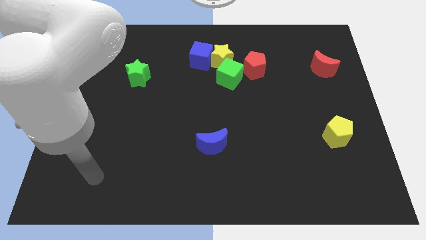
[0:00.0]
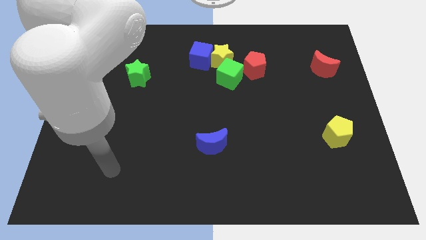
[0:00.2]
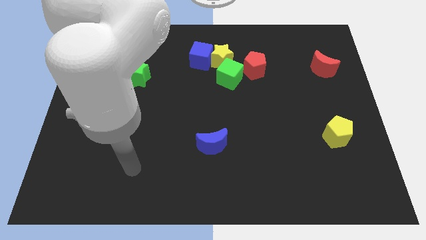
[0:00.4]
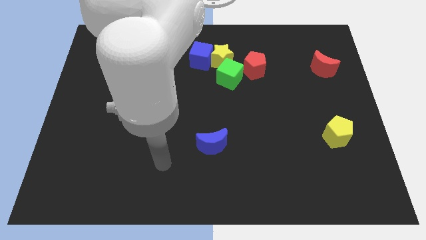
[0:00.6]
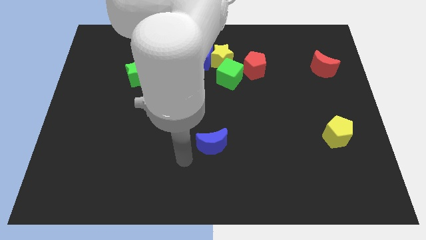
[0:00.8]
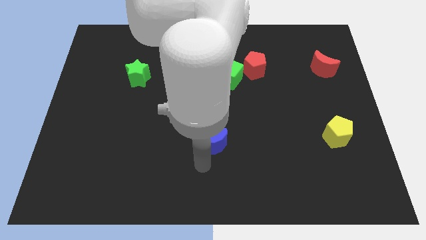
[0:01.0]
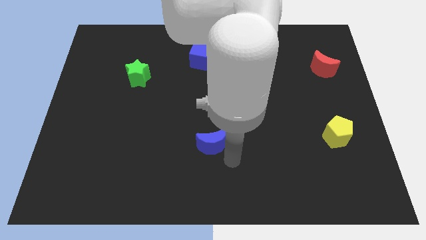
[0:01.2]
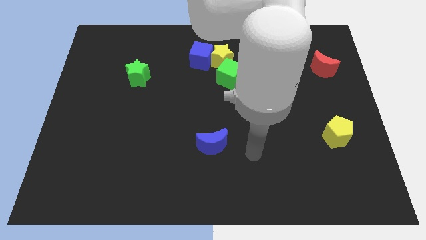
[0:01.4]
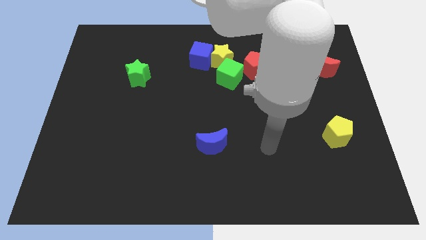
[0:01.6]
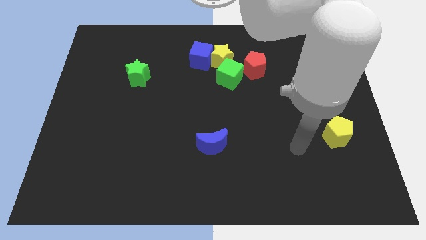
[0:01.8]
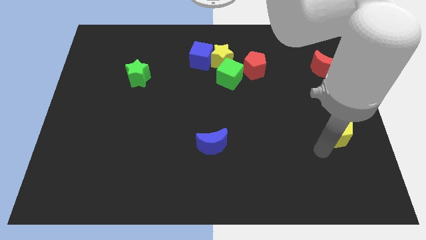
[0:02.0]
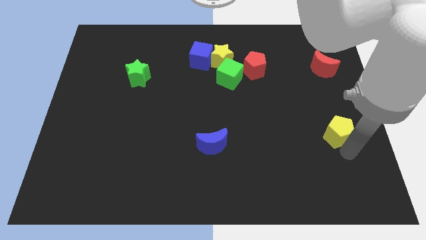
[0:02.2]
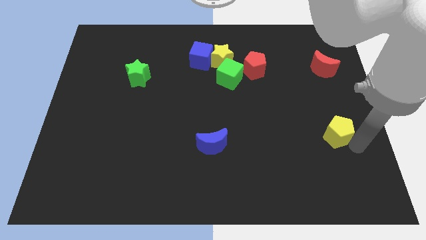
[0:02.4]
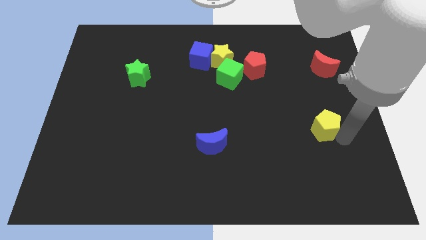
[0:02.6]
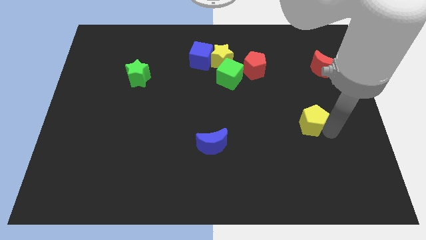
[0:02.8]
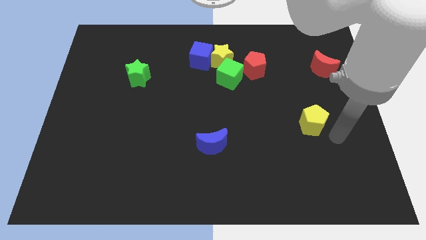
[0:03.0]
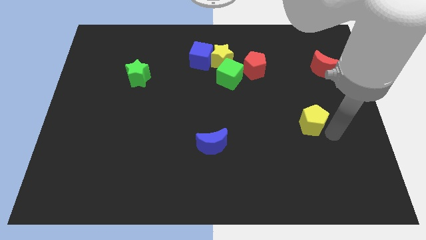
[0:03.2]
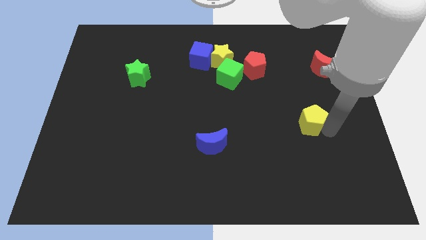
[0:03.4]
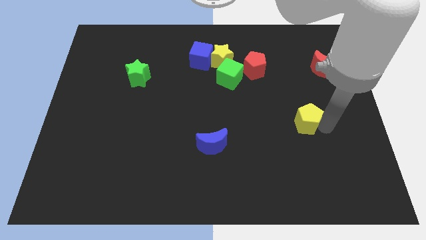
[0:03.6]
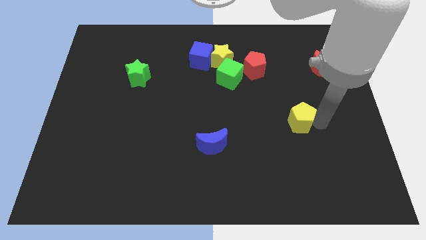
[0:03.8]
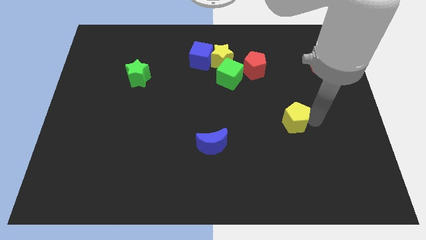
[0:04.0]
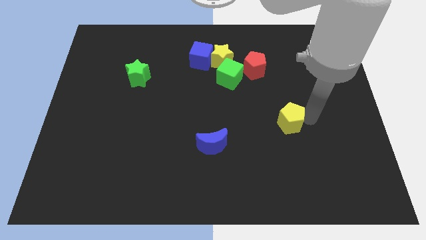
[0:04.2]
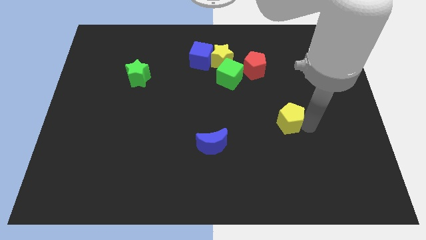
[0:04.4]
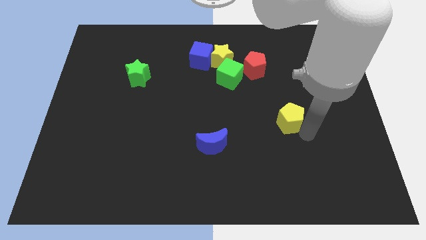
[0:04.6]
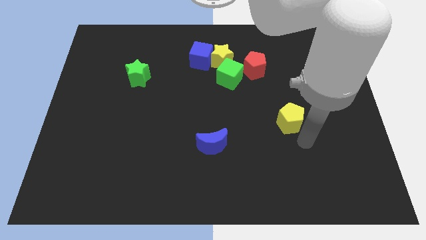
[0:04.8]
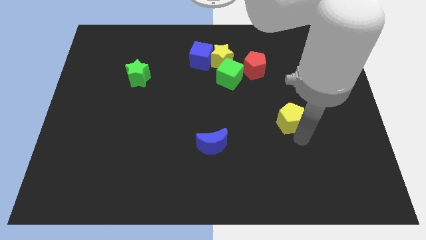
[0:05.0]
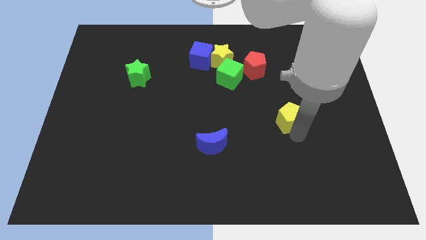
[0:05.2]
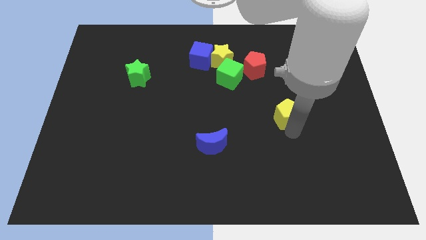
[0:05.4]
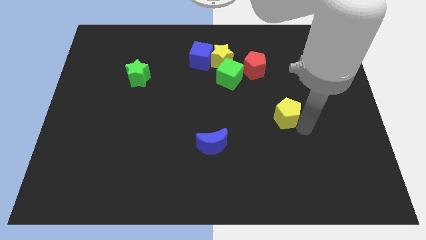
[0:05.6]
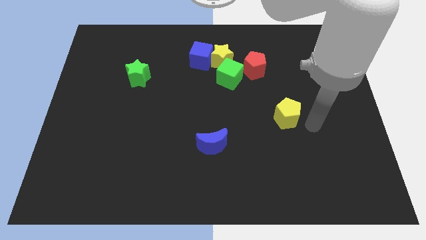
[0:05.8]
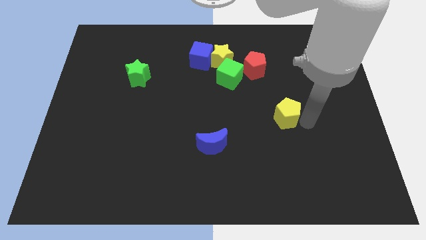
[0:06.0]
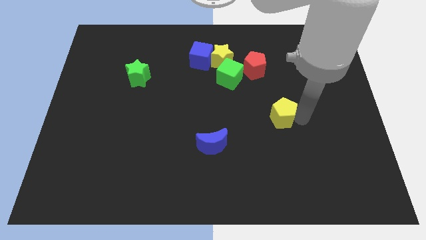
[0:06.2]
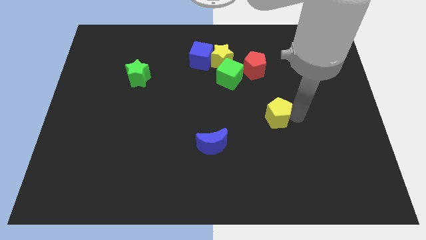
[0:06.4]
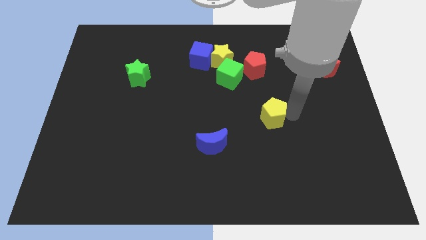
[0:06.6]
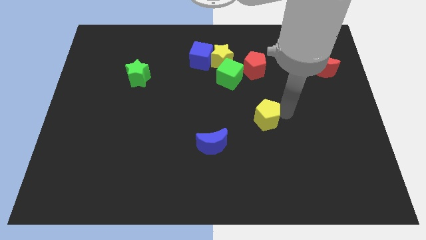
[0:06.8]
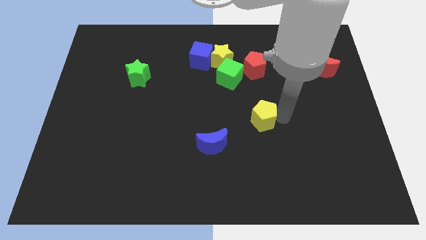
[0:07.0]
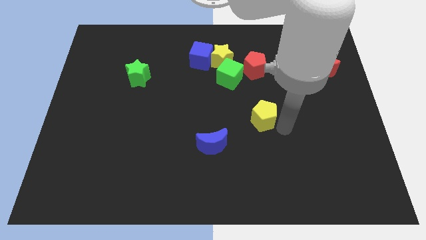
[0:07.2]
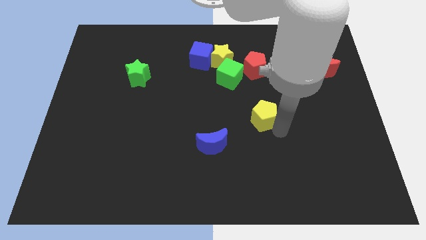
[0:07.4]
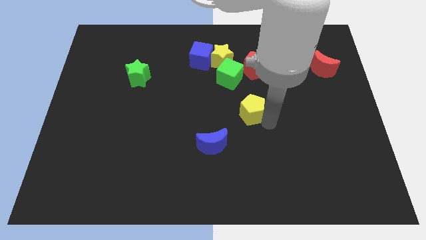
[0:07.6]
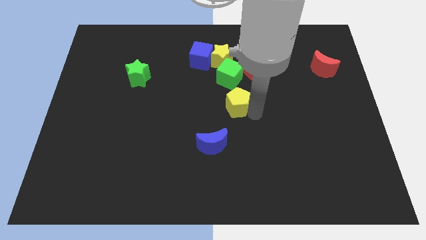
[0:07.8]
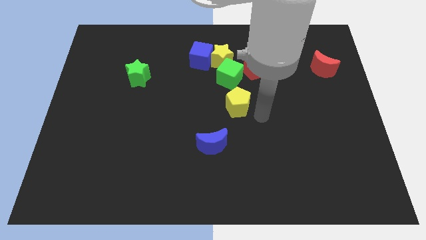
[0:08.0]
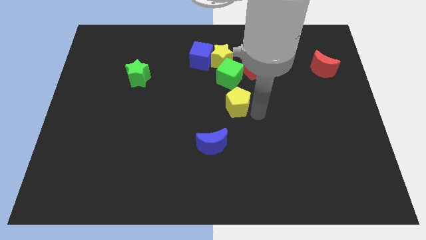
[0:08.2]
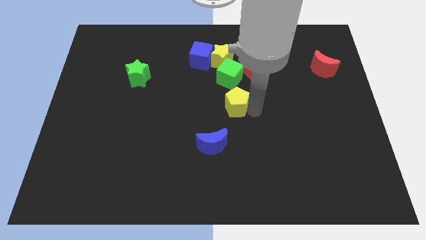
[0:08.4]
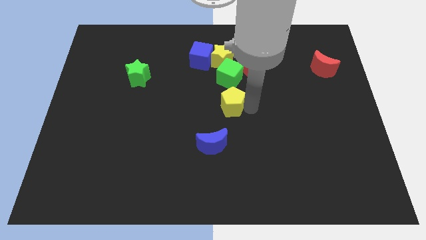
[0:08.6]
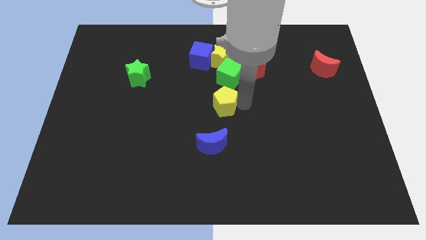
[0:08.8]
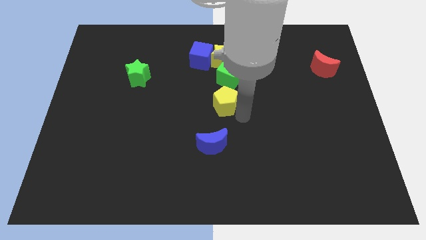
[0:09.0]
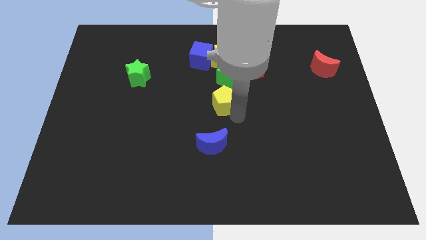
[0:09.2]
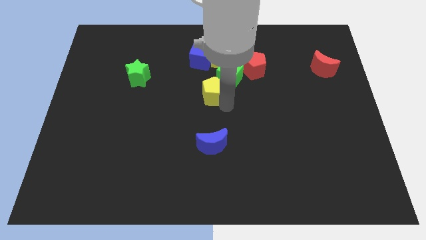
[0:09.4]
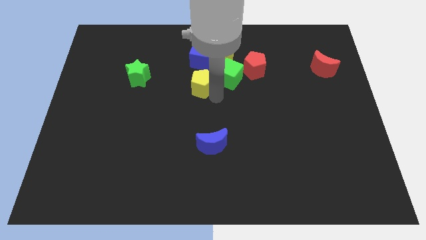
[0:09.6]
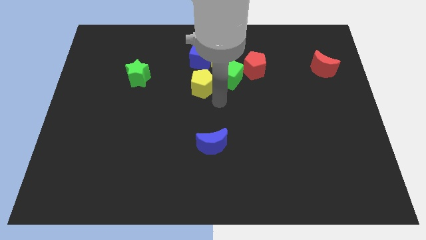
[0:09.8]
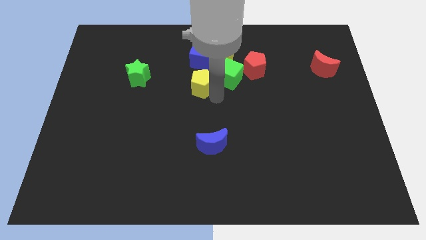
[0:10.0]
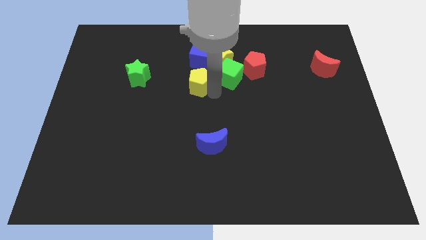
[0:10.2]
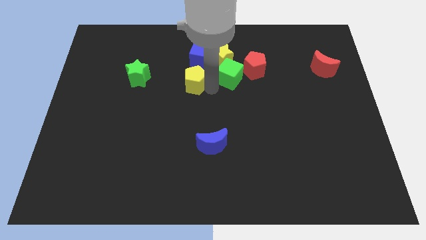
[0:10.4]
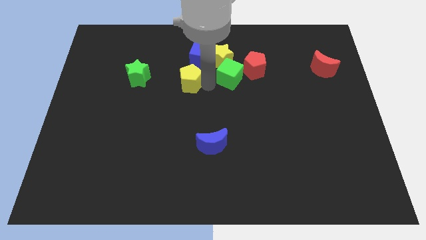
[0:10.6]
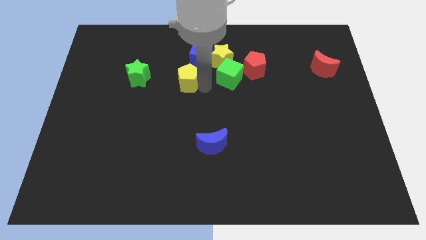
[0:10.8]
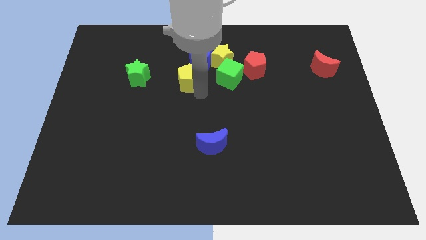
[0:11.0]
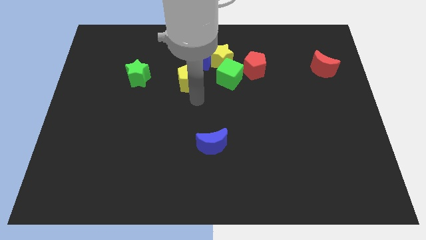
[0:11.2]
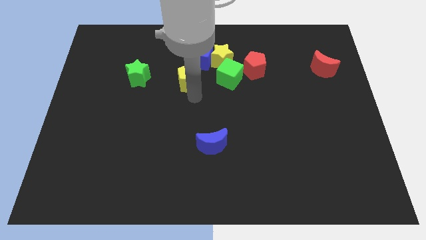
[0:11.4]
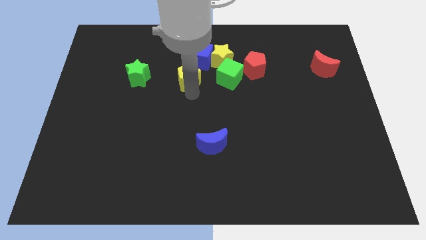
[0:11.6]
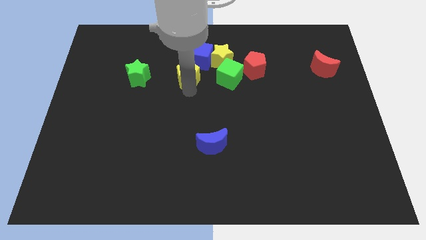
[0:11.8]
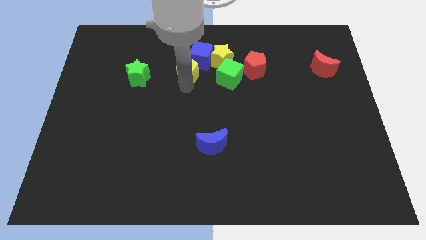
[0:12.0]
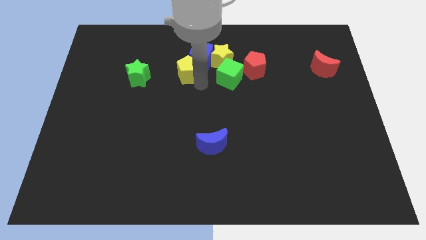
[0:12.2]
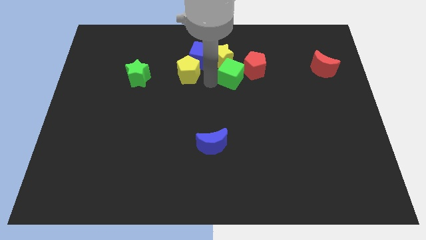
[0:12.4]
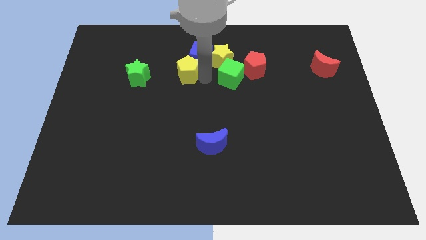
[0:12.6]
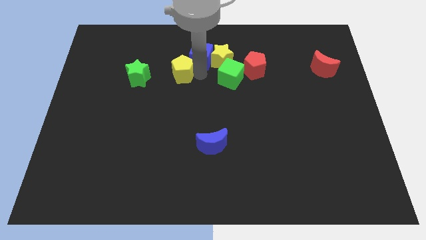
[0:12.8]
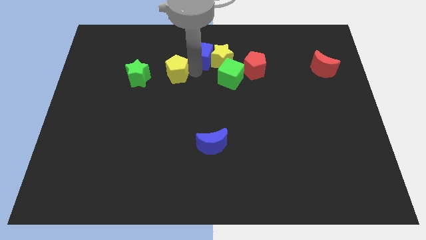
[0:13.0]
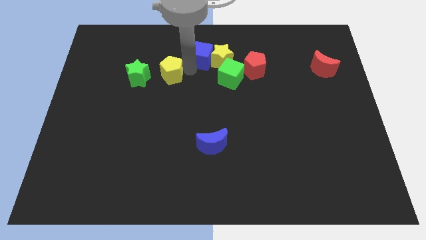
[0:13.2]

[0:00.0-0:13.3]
push the yellow pentagon diagonally up and to the right of the green star

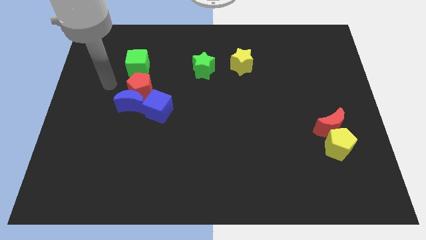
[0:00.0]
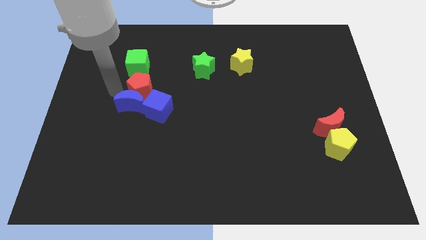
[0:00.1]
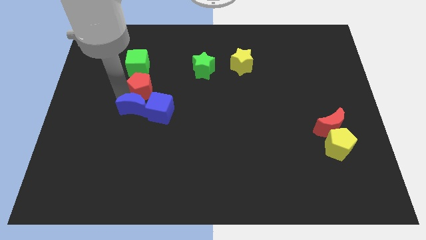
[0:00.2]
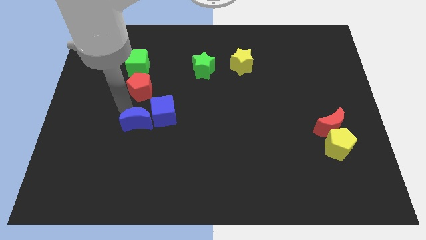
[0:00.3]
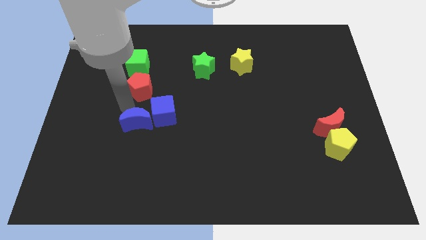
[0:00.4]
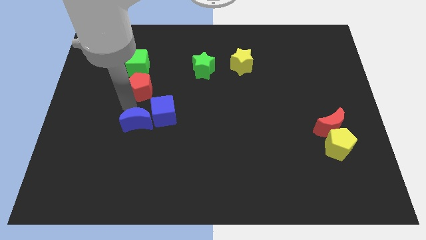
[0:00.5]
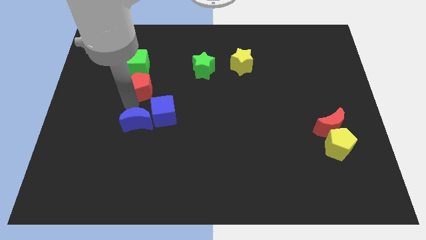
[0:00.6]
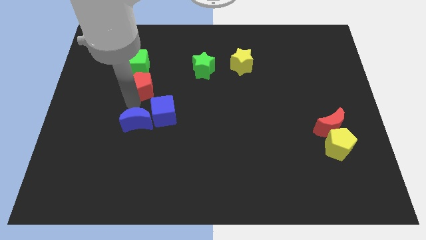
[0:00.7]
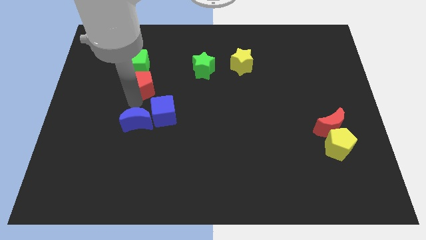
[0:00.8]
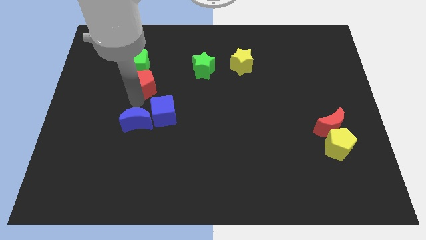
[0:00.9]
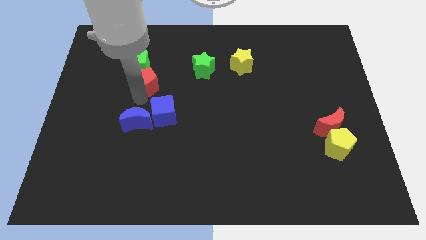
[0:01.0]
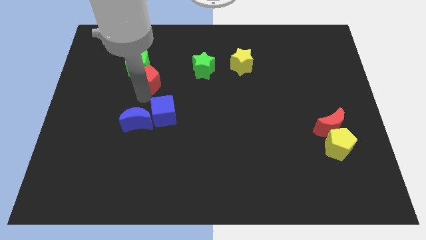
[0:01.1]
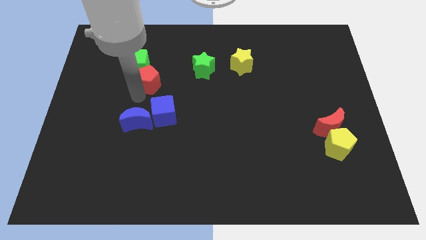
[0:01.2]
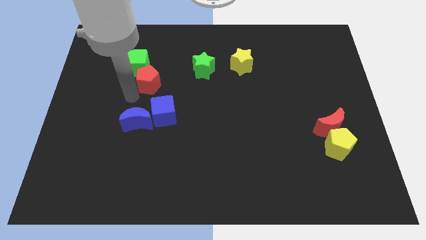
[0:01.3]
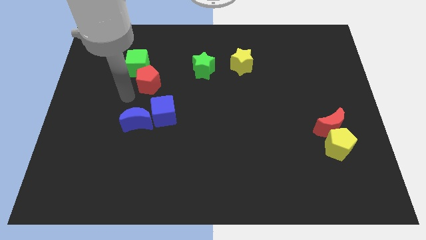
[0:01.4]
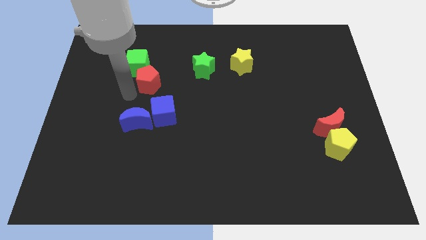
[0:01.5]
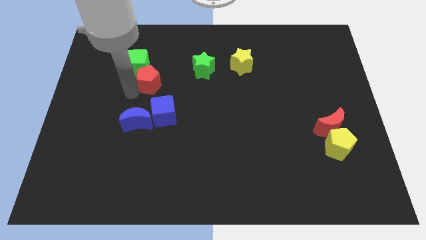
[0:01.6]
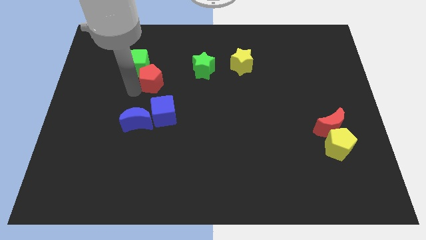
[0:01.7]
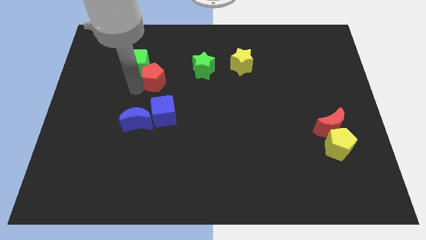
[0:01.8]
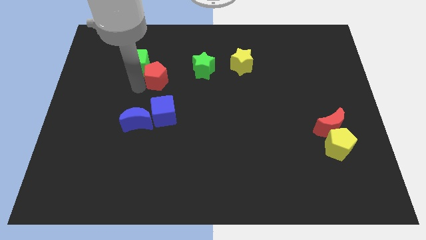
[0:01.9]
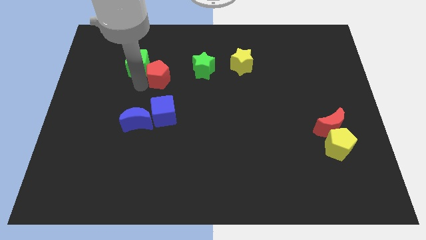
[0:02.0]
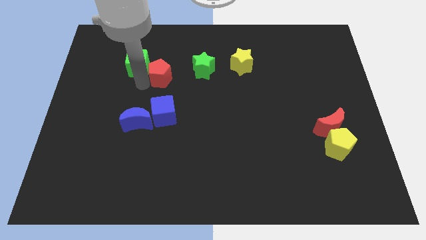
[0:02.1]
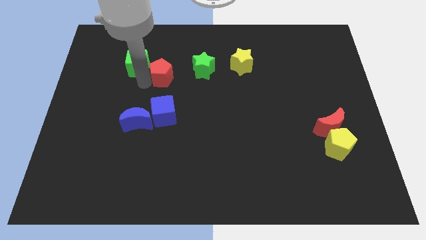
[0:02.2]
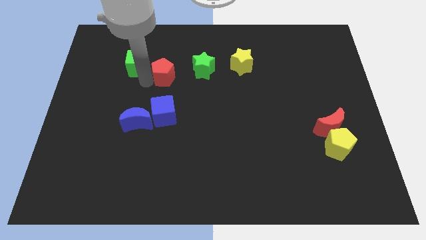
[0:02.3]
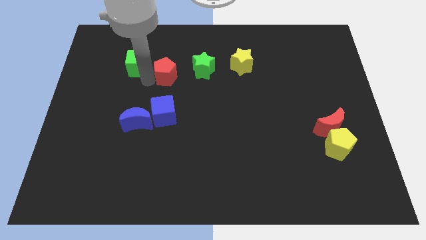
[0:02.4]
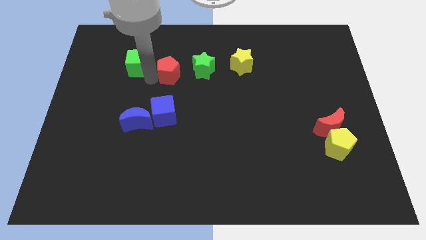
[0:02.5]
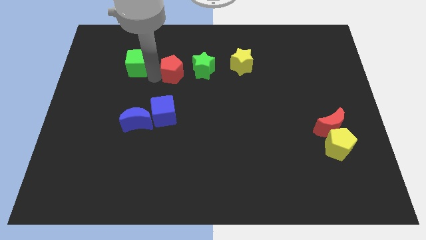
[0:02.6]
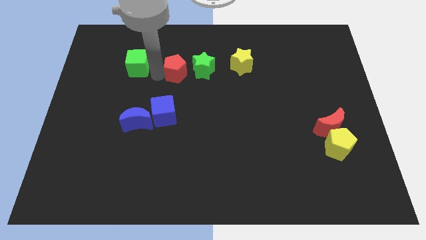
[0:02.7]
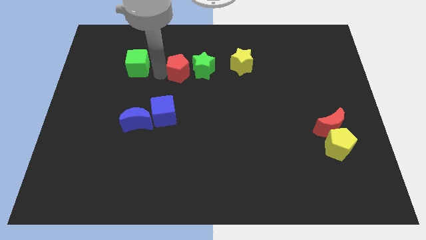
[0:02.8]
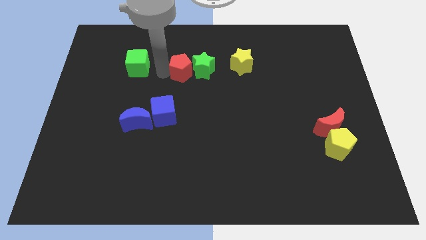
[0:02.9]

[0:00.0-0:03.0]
push the red pentagon left of the yellow star
